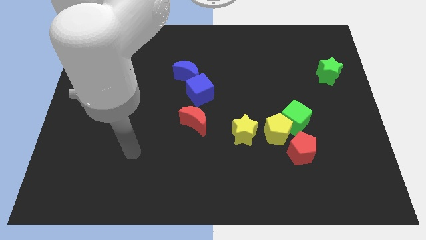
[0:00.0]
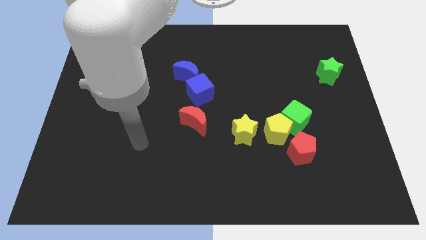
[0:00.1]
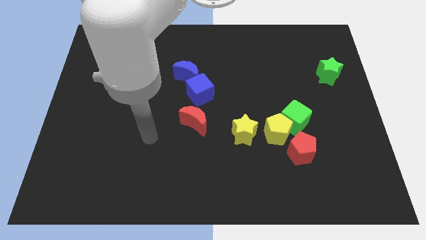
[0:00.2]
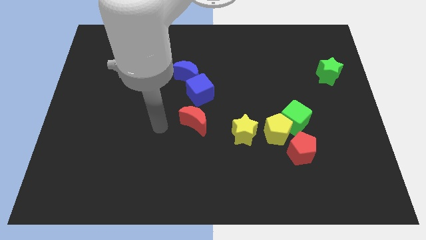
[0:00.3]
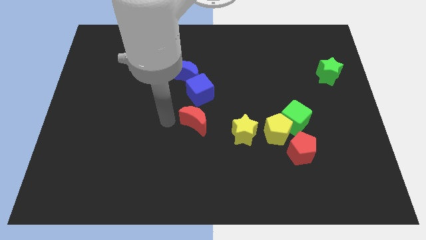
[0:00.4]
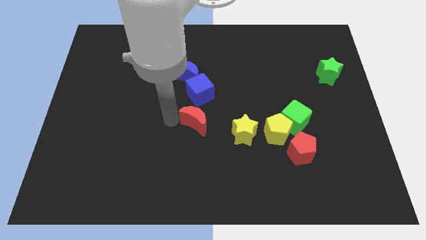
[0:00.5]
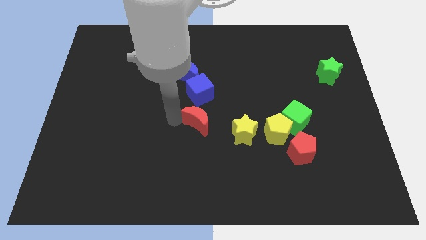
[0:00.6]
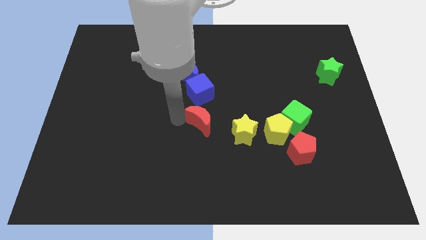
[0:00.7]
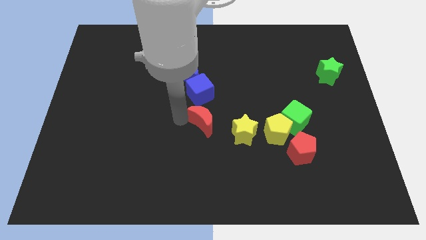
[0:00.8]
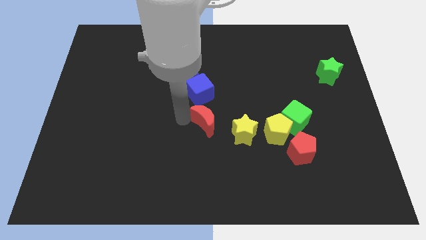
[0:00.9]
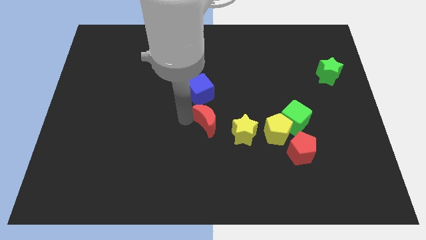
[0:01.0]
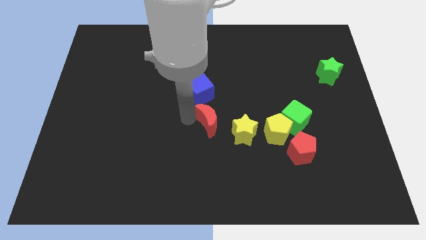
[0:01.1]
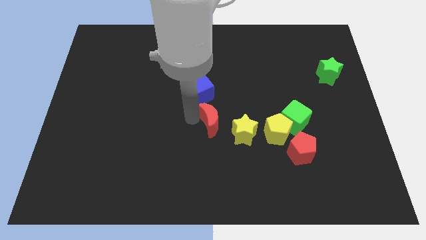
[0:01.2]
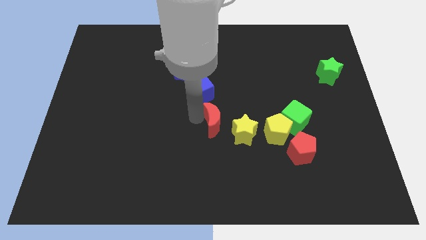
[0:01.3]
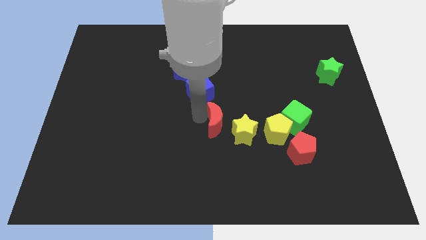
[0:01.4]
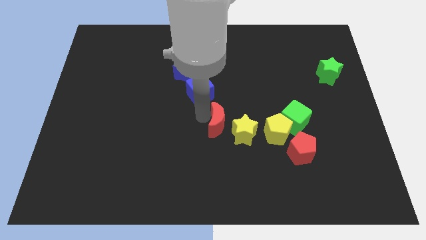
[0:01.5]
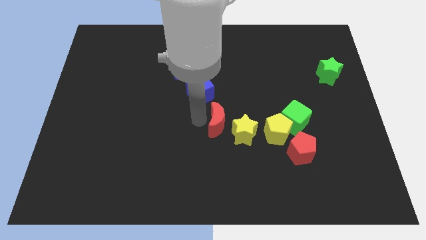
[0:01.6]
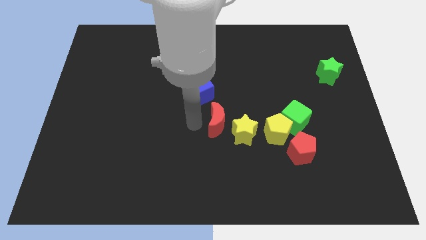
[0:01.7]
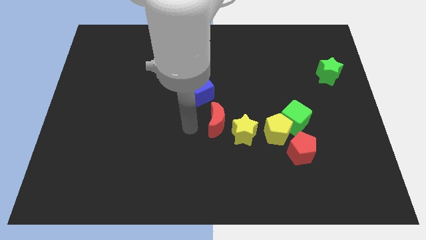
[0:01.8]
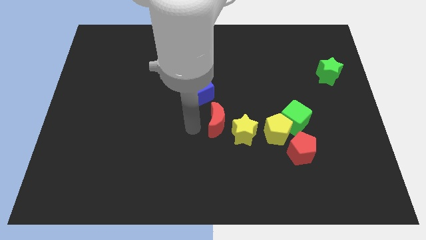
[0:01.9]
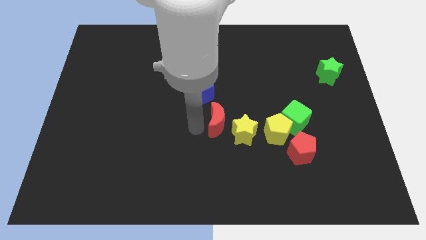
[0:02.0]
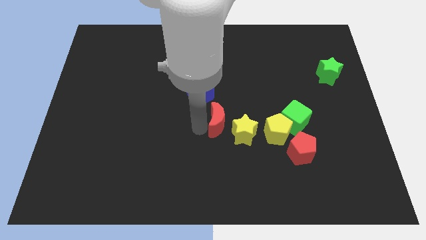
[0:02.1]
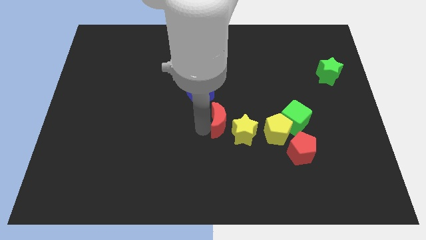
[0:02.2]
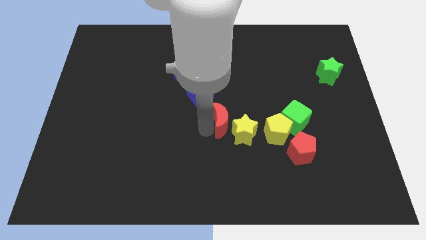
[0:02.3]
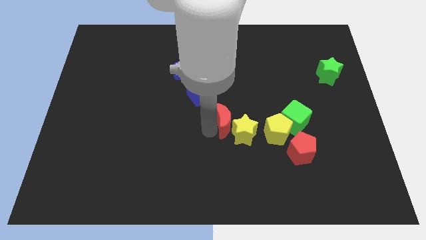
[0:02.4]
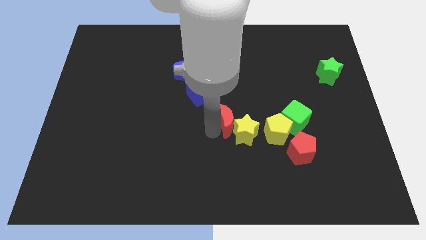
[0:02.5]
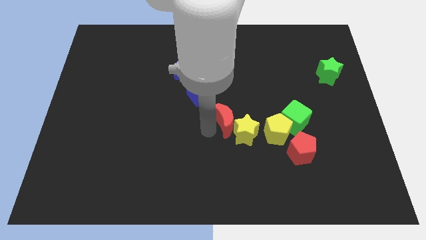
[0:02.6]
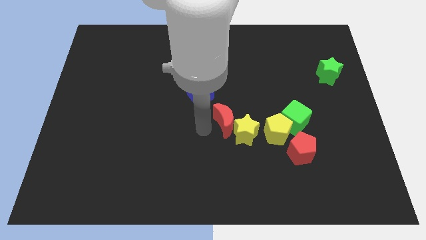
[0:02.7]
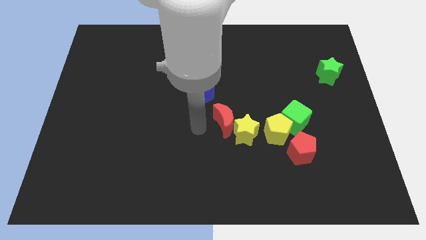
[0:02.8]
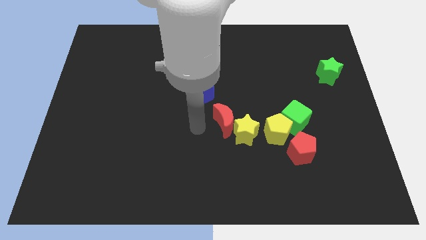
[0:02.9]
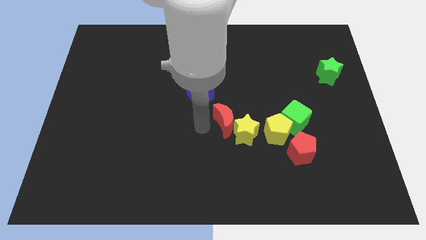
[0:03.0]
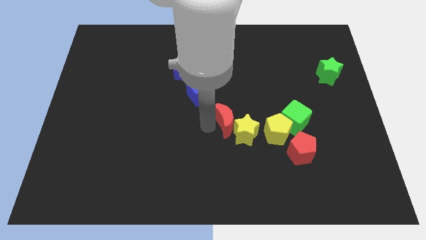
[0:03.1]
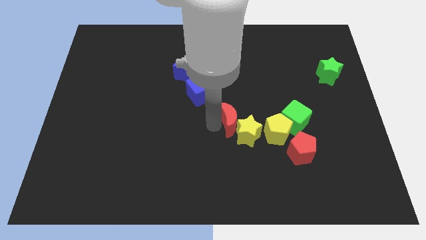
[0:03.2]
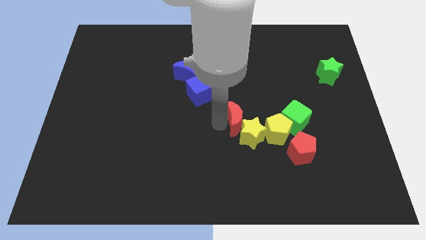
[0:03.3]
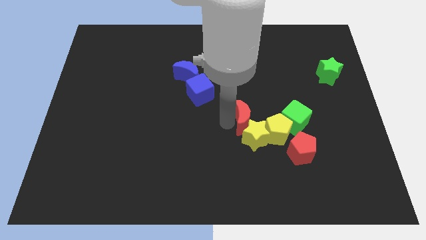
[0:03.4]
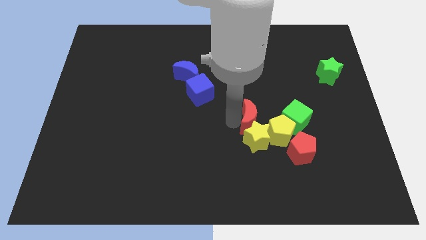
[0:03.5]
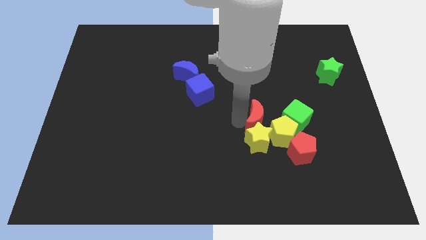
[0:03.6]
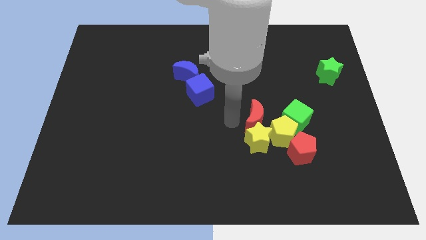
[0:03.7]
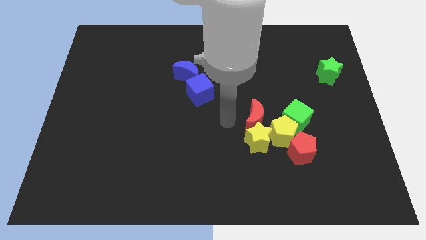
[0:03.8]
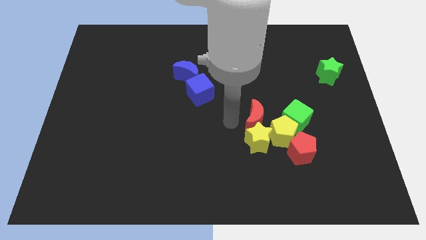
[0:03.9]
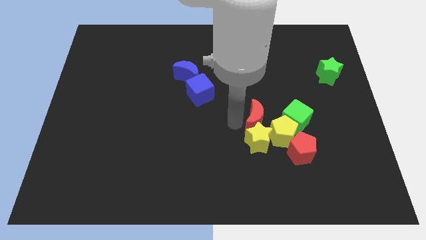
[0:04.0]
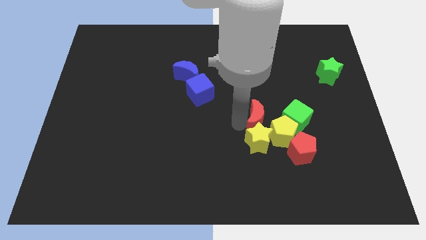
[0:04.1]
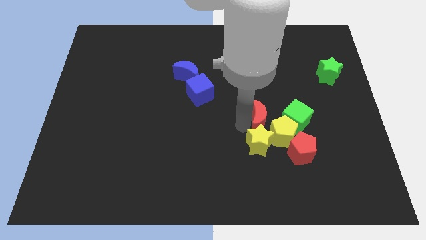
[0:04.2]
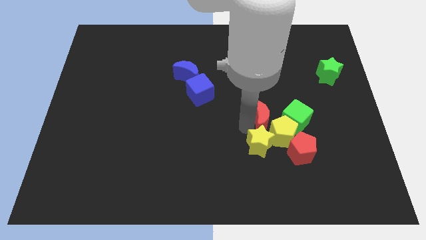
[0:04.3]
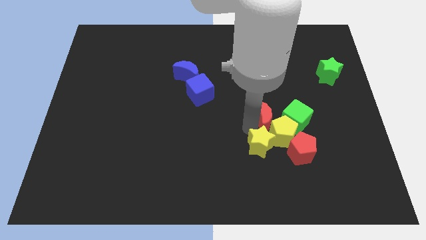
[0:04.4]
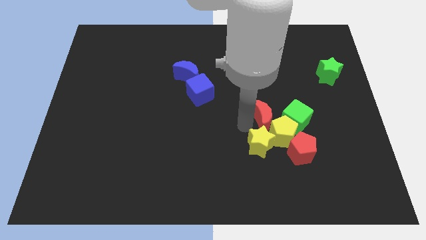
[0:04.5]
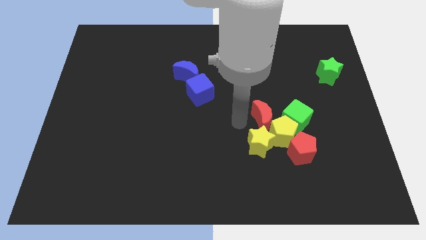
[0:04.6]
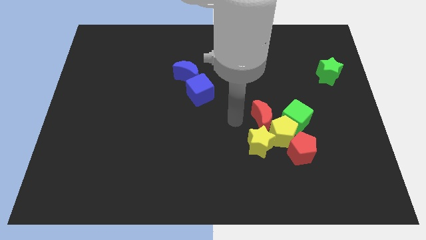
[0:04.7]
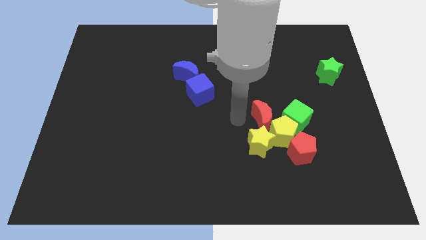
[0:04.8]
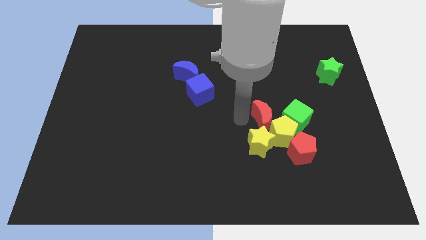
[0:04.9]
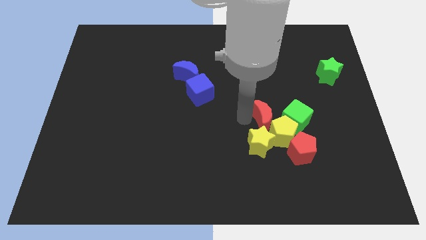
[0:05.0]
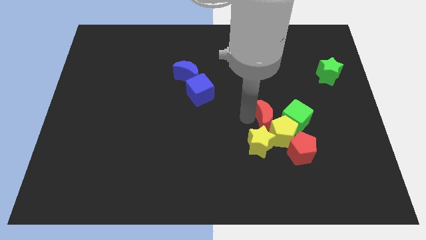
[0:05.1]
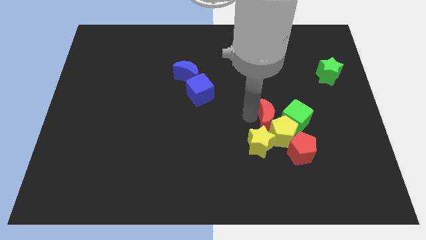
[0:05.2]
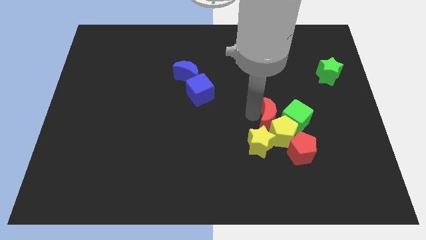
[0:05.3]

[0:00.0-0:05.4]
slide the red moon to the green cube

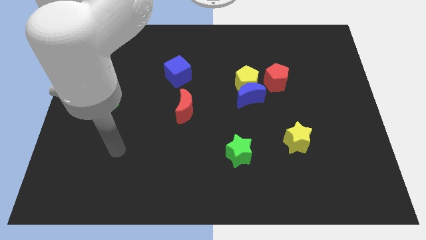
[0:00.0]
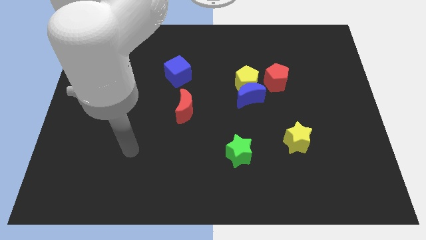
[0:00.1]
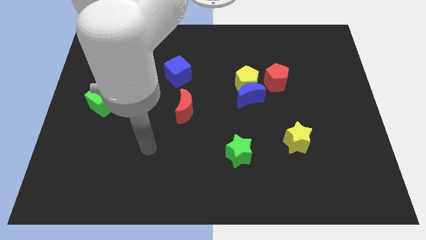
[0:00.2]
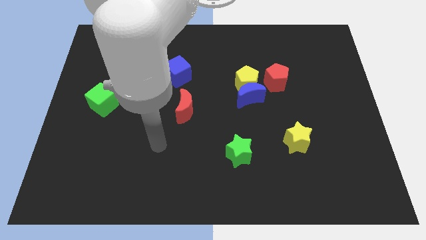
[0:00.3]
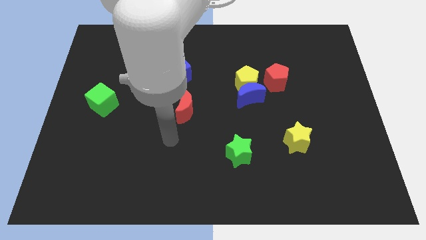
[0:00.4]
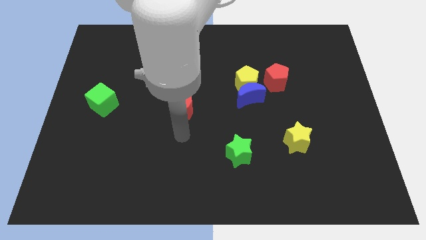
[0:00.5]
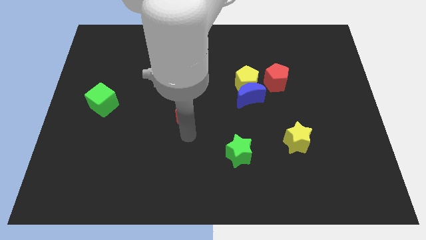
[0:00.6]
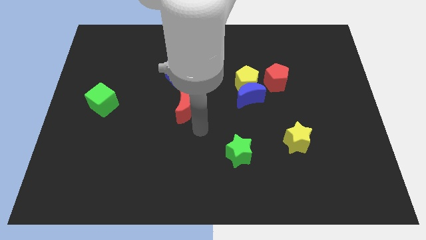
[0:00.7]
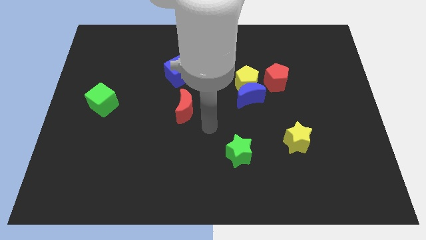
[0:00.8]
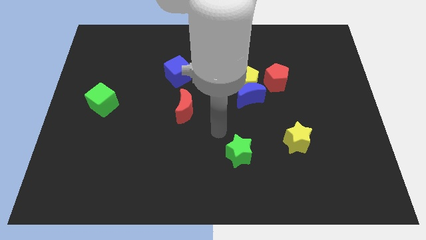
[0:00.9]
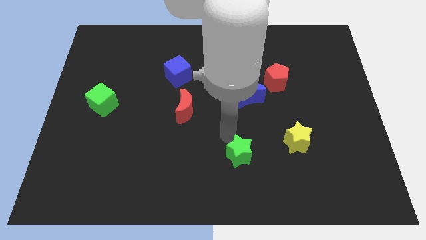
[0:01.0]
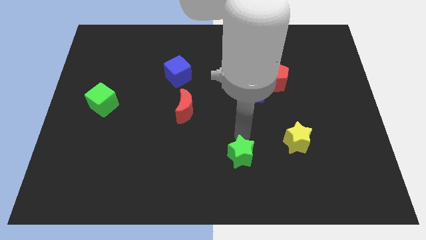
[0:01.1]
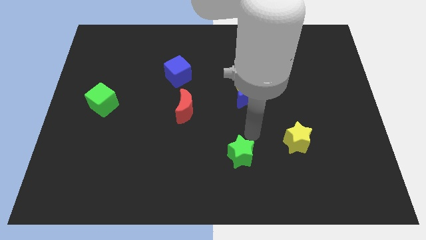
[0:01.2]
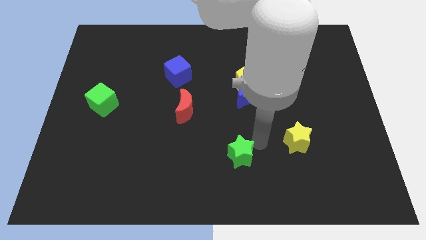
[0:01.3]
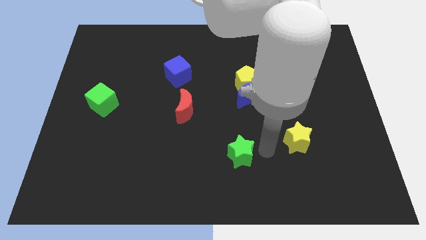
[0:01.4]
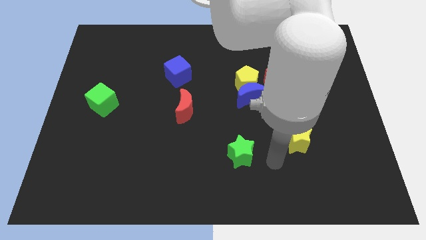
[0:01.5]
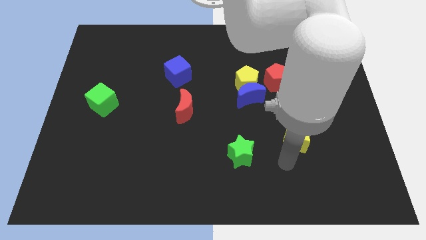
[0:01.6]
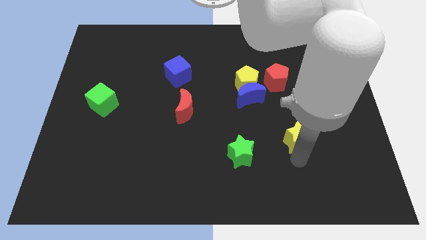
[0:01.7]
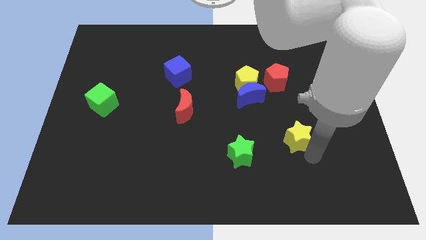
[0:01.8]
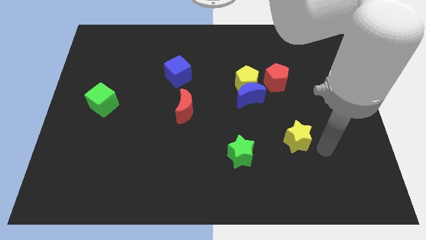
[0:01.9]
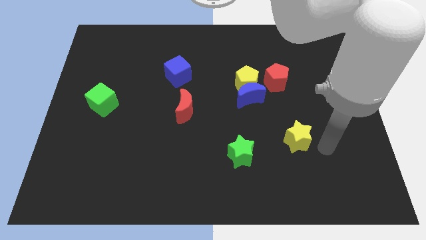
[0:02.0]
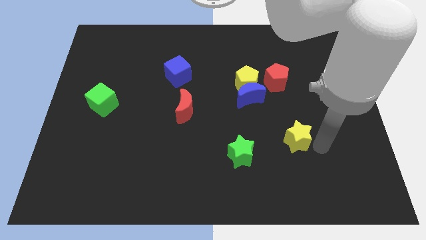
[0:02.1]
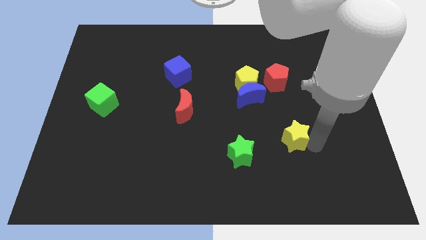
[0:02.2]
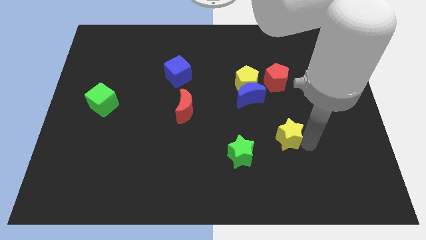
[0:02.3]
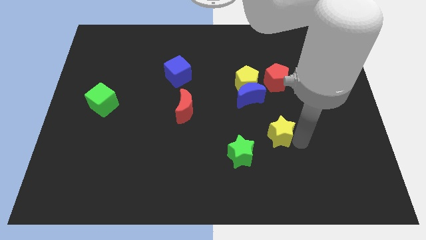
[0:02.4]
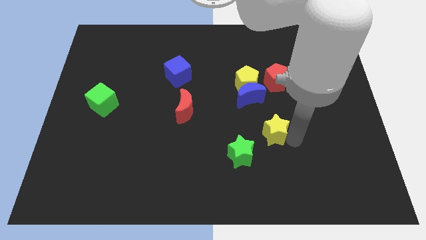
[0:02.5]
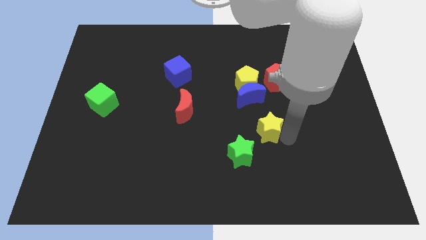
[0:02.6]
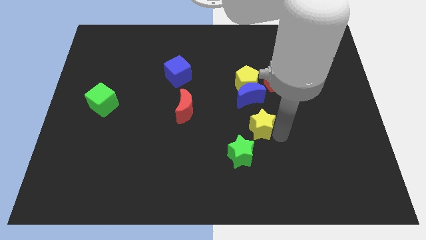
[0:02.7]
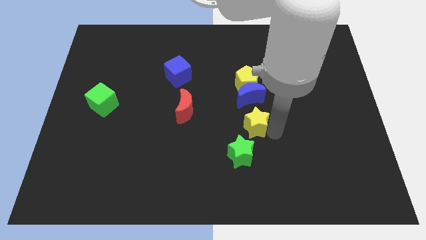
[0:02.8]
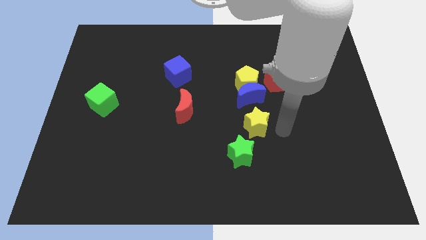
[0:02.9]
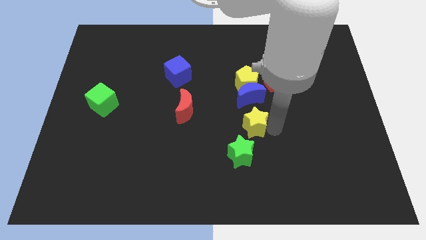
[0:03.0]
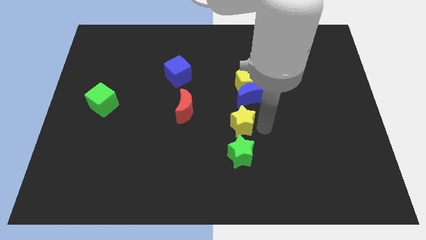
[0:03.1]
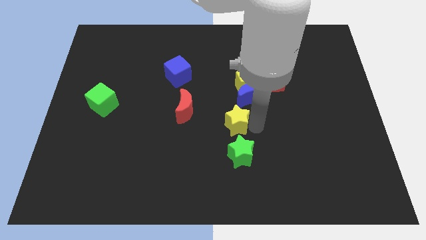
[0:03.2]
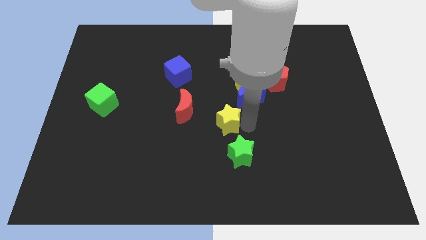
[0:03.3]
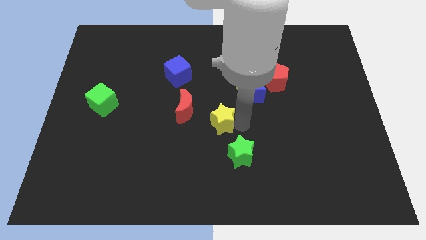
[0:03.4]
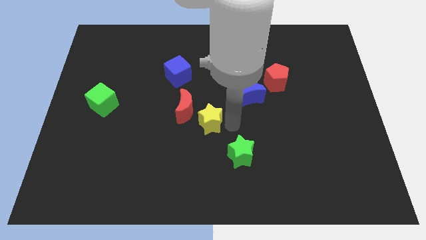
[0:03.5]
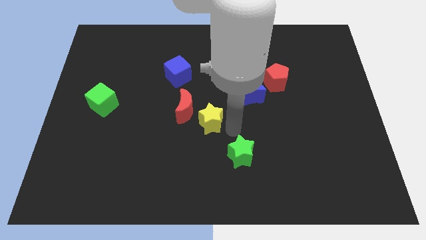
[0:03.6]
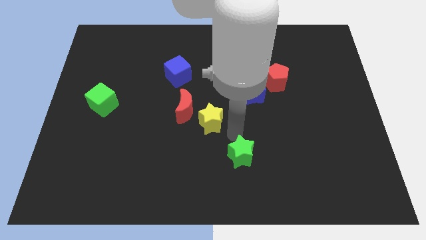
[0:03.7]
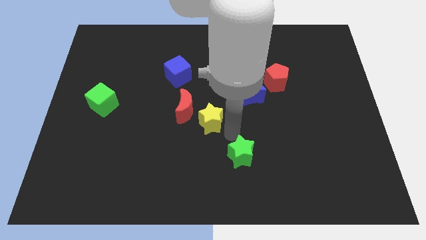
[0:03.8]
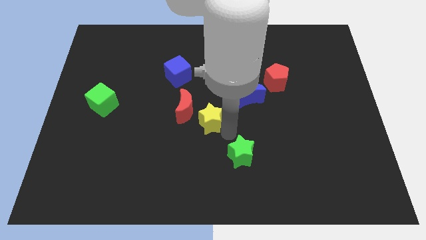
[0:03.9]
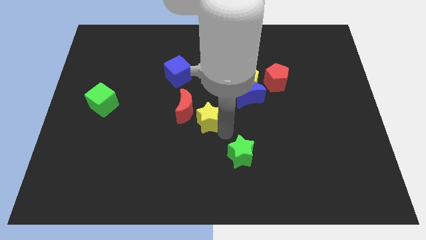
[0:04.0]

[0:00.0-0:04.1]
put the yellow star close to the red moon
